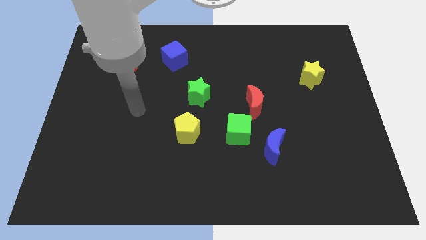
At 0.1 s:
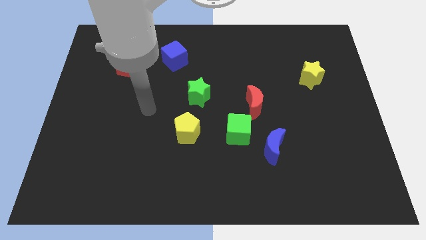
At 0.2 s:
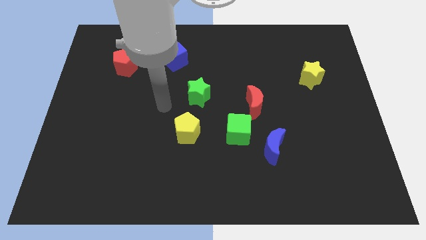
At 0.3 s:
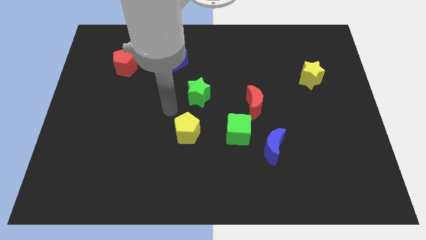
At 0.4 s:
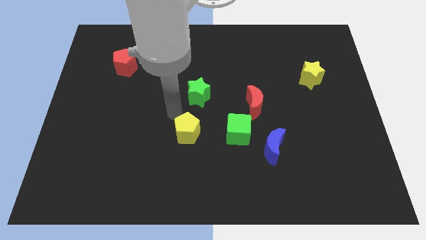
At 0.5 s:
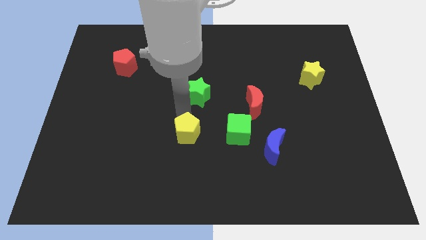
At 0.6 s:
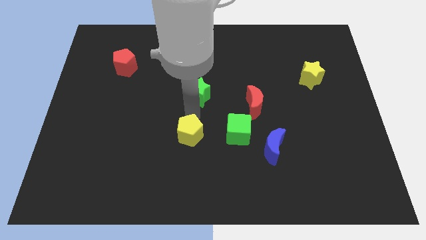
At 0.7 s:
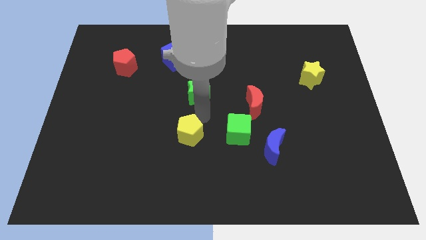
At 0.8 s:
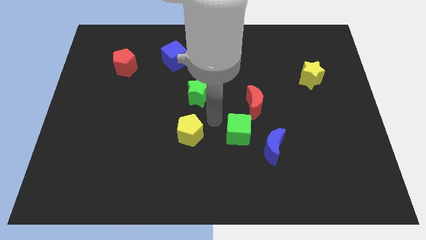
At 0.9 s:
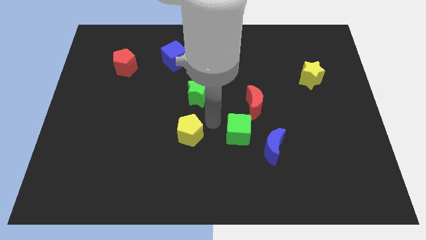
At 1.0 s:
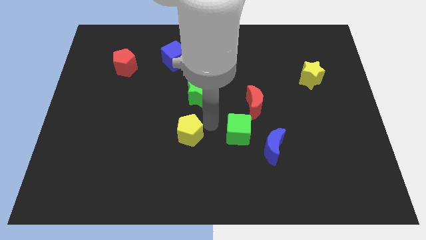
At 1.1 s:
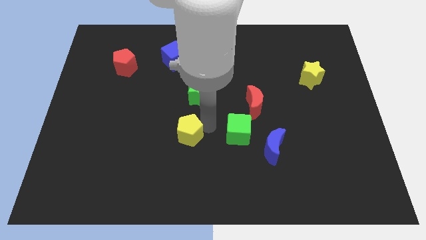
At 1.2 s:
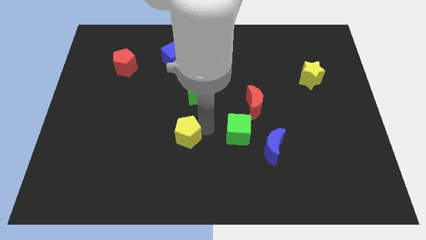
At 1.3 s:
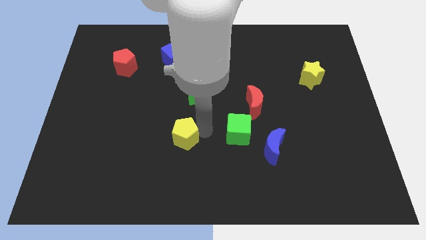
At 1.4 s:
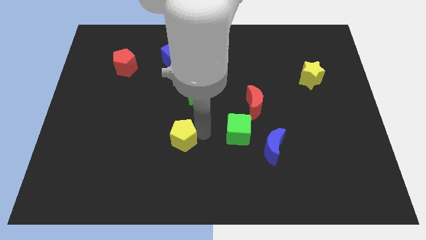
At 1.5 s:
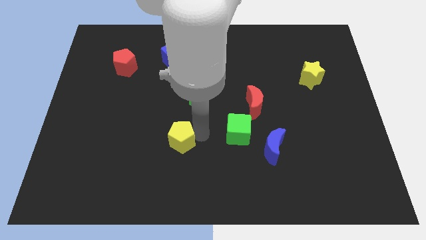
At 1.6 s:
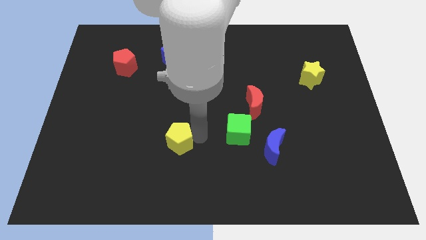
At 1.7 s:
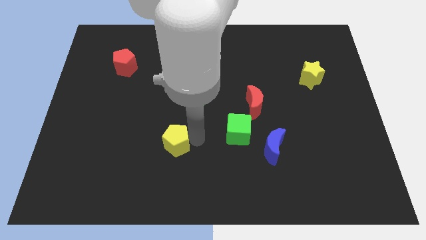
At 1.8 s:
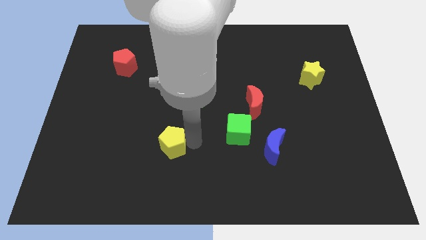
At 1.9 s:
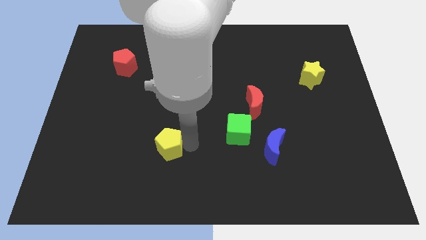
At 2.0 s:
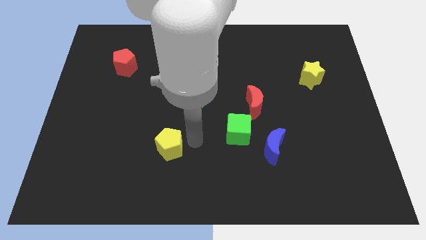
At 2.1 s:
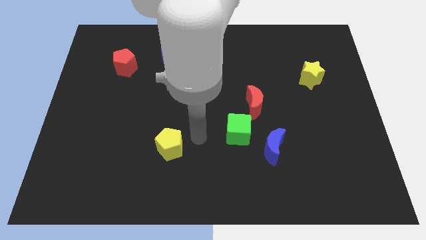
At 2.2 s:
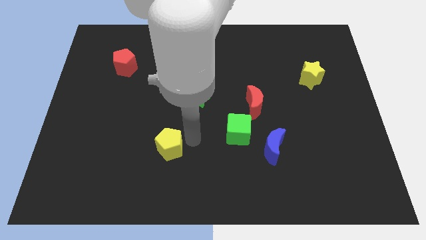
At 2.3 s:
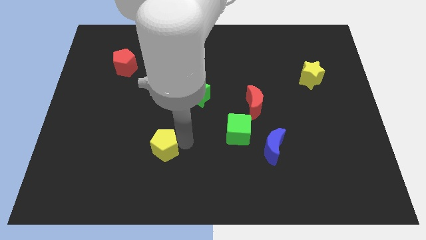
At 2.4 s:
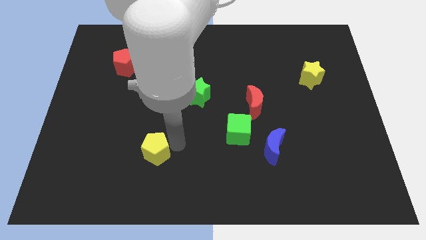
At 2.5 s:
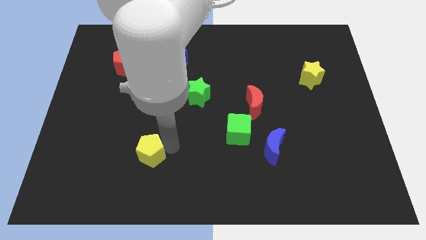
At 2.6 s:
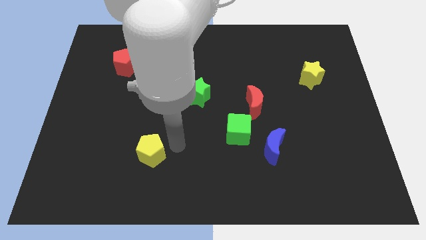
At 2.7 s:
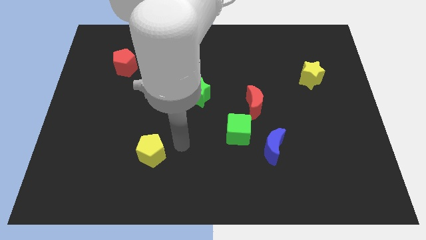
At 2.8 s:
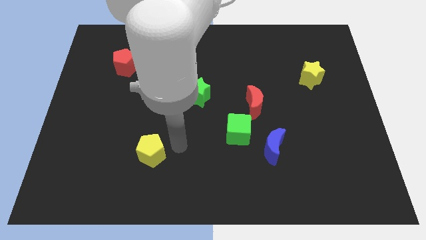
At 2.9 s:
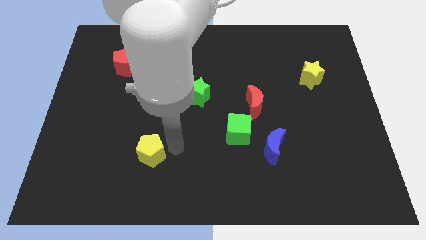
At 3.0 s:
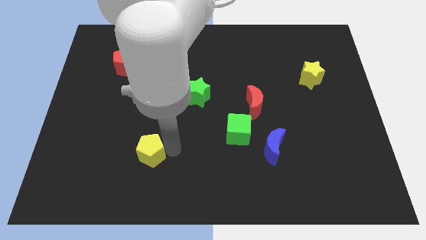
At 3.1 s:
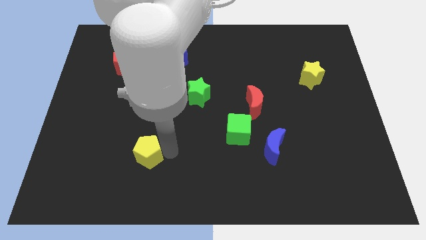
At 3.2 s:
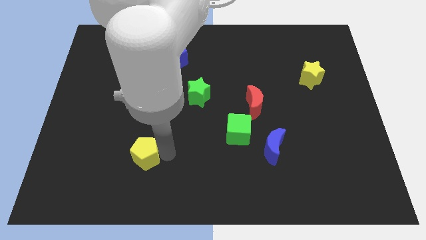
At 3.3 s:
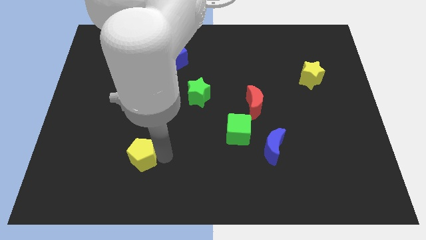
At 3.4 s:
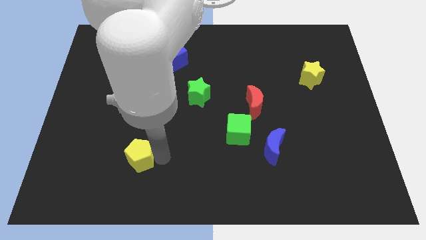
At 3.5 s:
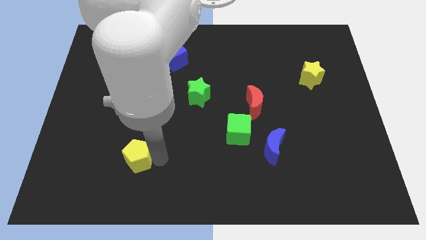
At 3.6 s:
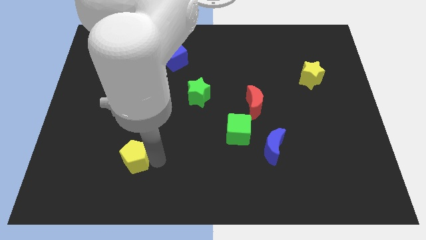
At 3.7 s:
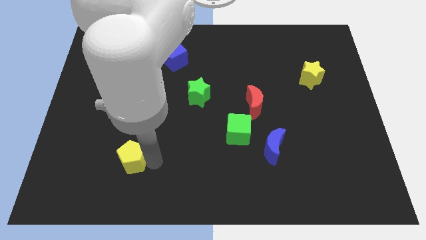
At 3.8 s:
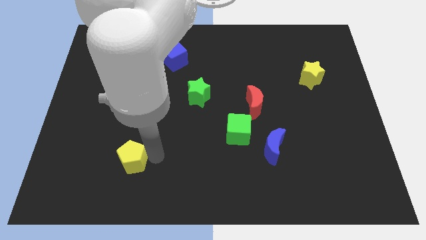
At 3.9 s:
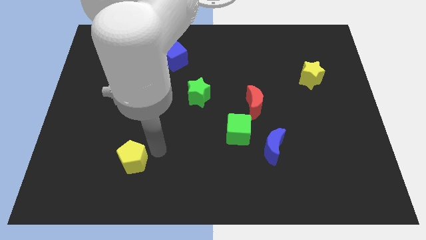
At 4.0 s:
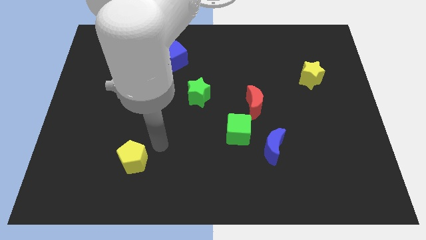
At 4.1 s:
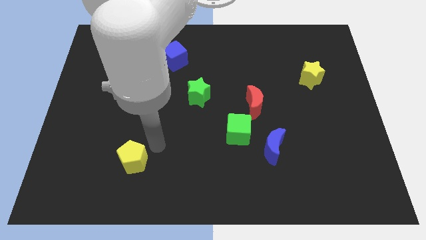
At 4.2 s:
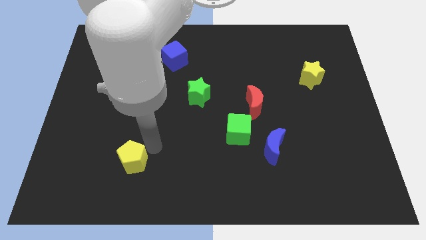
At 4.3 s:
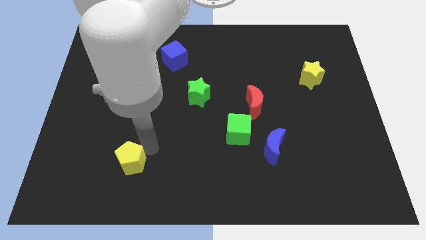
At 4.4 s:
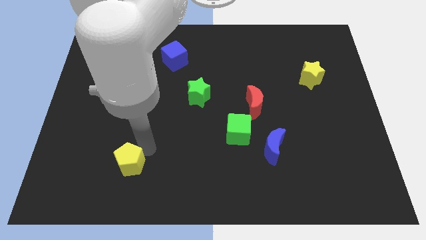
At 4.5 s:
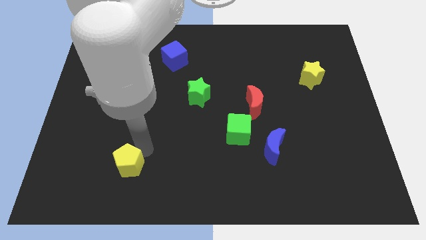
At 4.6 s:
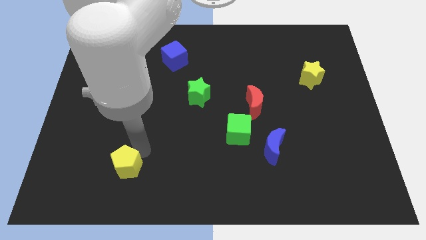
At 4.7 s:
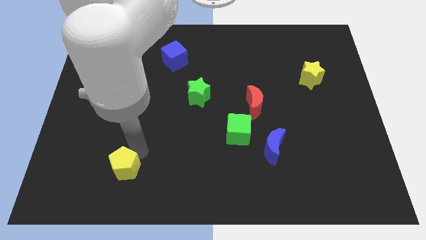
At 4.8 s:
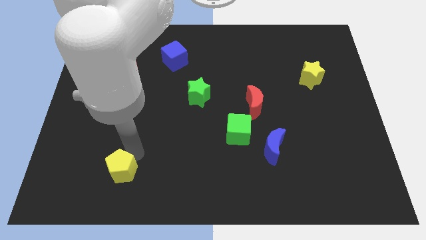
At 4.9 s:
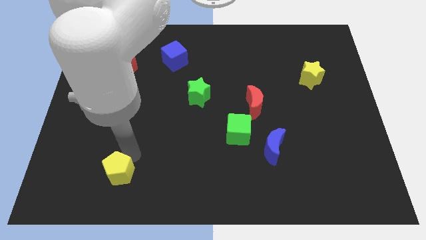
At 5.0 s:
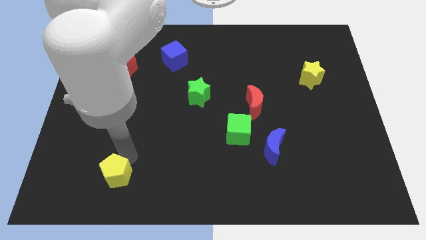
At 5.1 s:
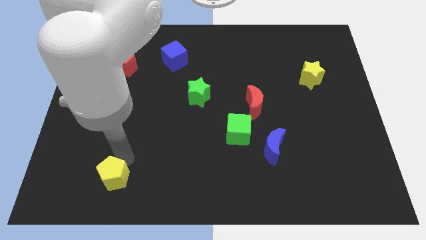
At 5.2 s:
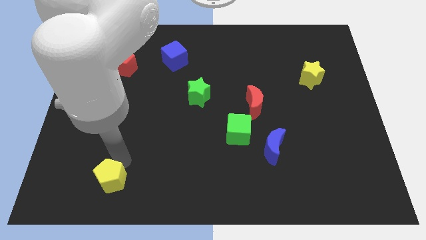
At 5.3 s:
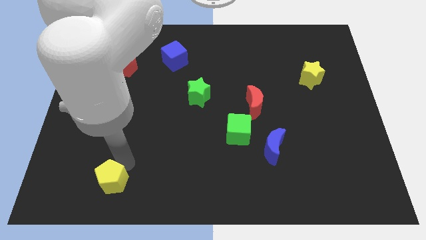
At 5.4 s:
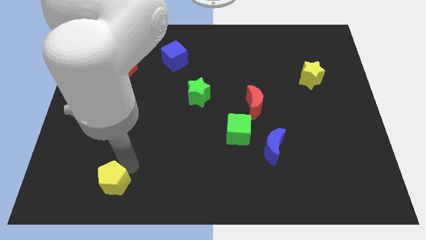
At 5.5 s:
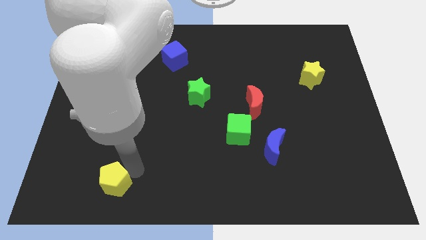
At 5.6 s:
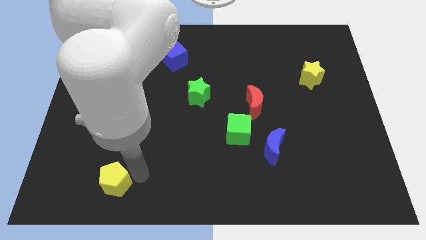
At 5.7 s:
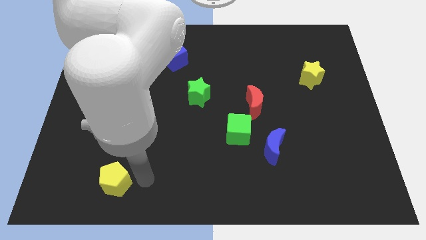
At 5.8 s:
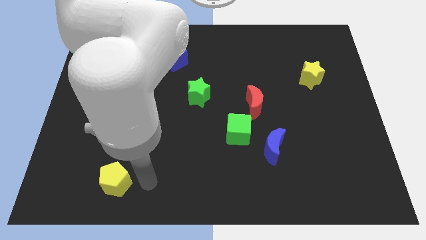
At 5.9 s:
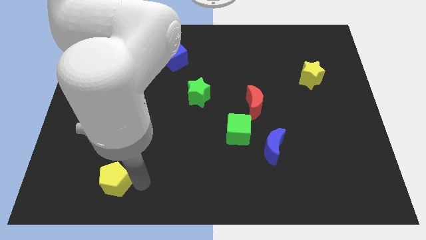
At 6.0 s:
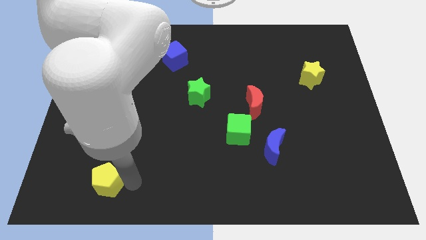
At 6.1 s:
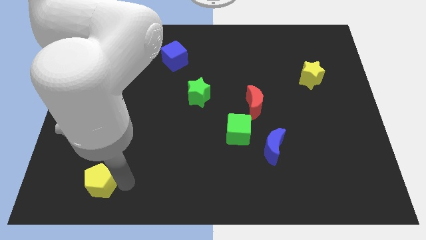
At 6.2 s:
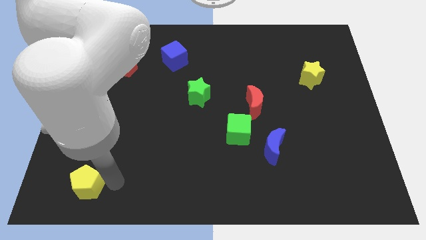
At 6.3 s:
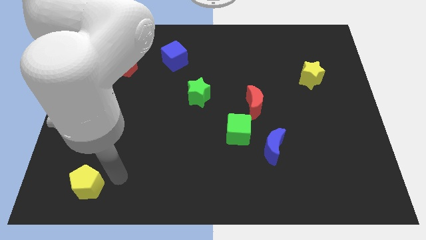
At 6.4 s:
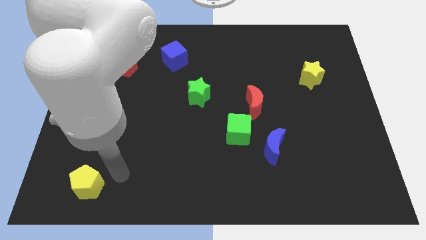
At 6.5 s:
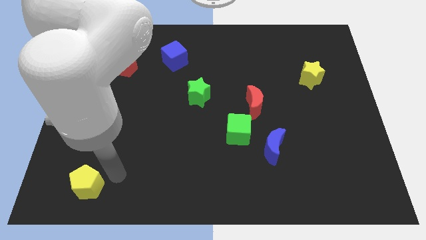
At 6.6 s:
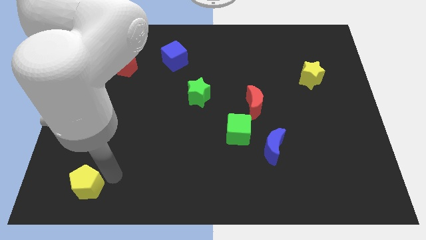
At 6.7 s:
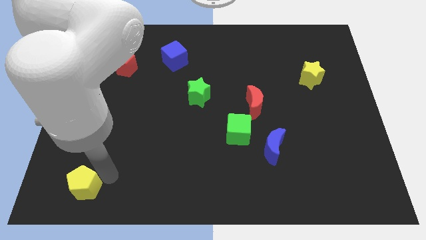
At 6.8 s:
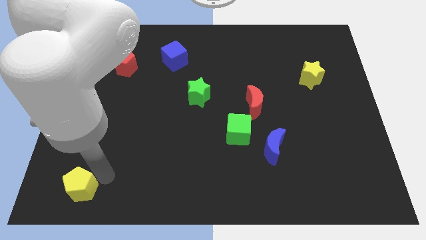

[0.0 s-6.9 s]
put the yellow pentagon to the bottom left corner
